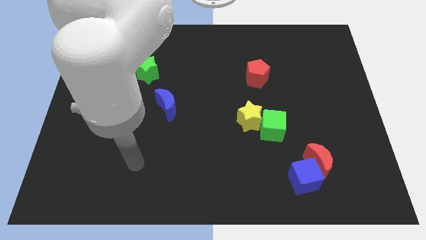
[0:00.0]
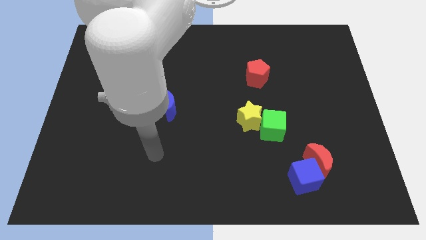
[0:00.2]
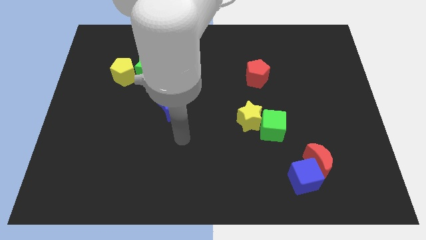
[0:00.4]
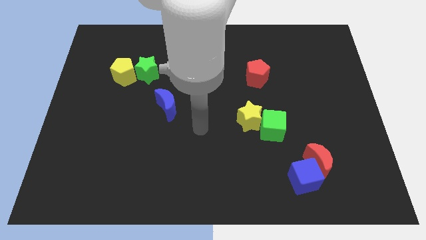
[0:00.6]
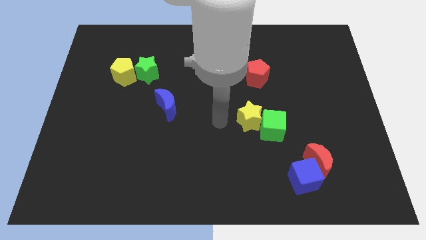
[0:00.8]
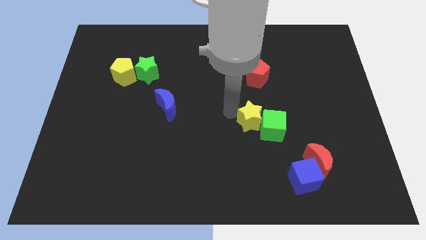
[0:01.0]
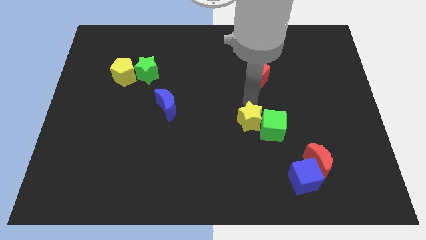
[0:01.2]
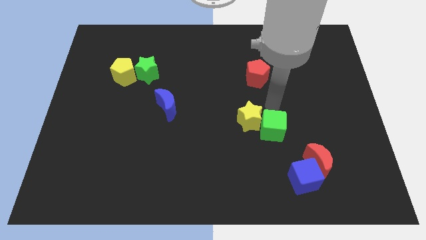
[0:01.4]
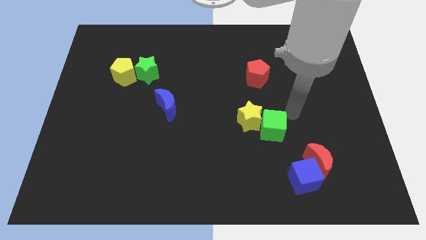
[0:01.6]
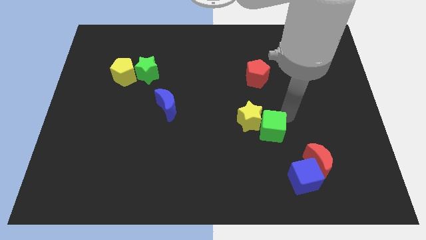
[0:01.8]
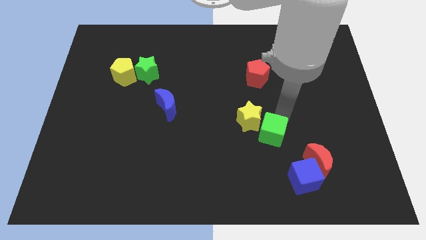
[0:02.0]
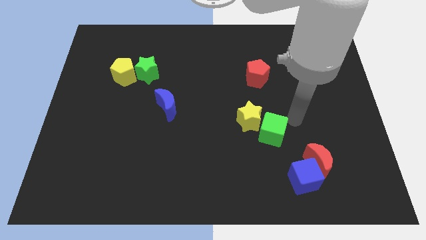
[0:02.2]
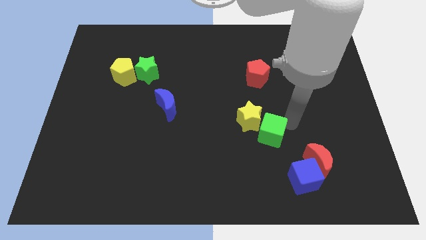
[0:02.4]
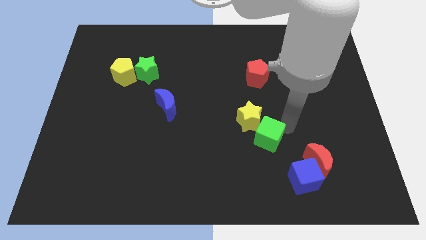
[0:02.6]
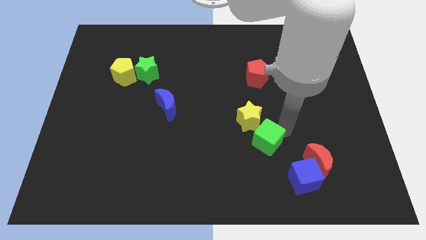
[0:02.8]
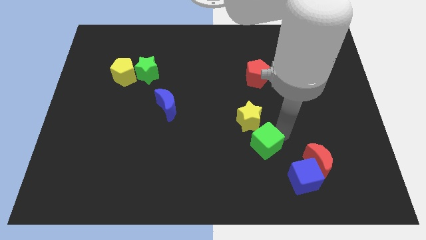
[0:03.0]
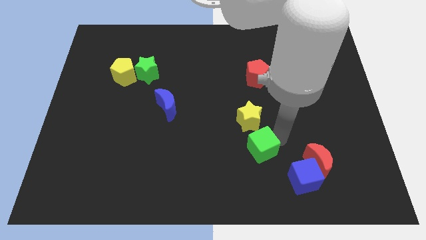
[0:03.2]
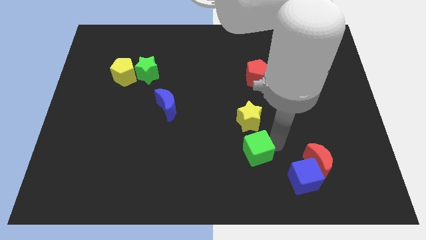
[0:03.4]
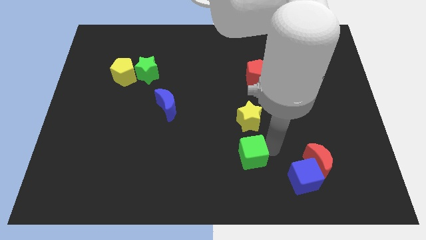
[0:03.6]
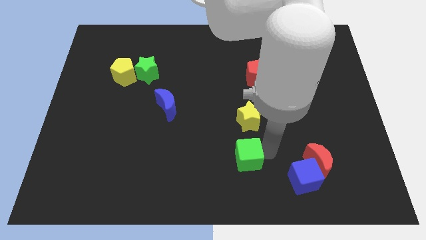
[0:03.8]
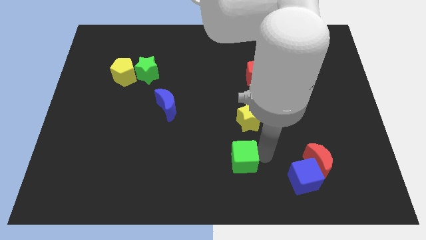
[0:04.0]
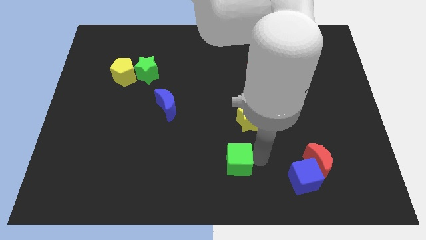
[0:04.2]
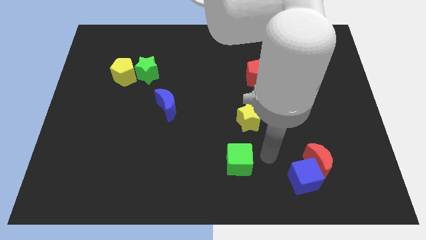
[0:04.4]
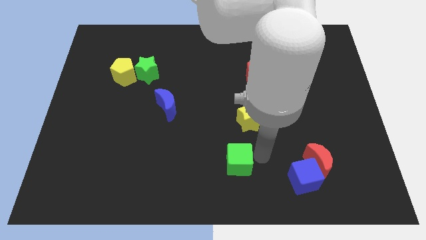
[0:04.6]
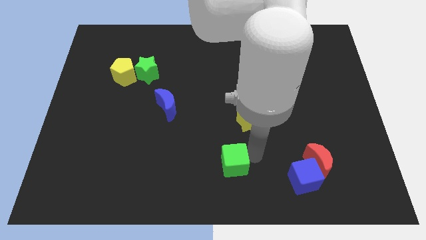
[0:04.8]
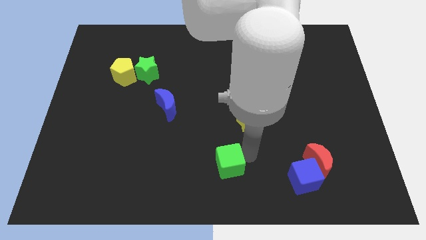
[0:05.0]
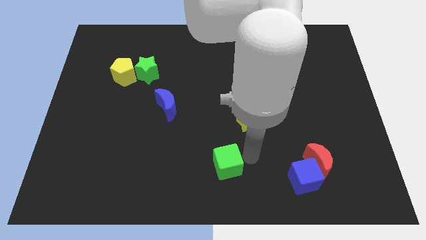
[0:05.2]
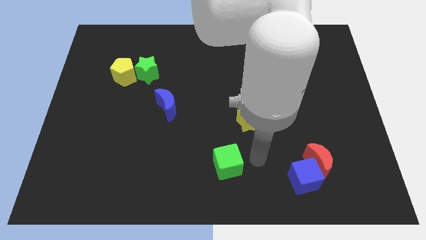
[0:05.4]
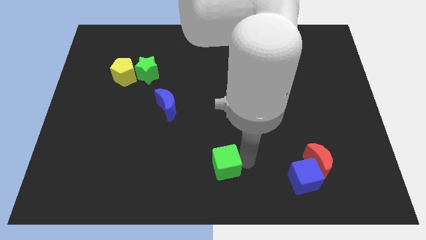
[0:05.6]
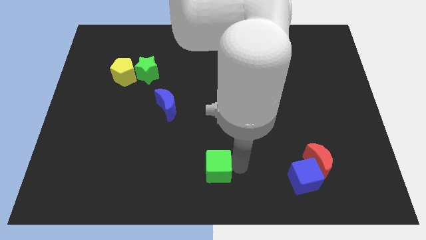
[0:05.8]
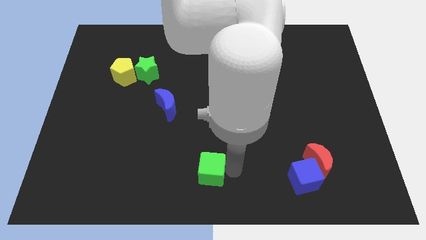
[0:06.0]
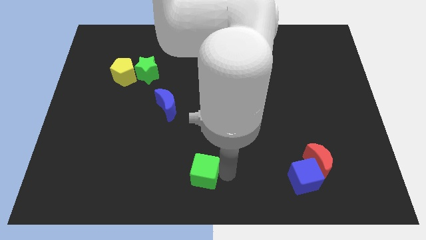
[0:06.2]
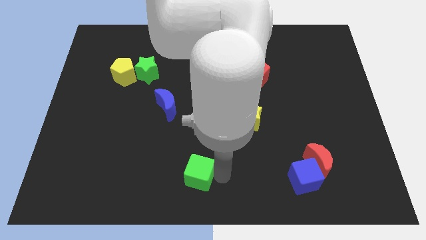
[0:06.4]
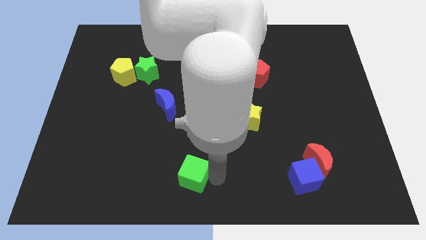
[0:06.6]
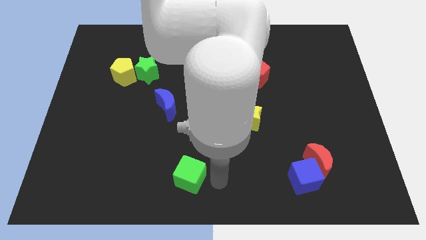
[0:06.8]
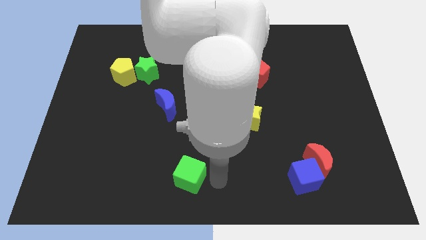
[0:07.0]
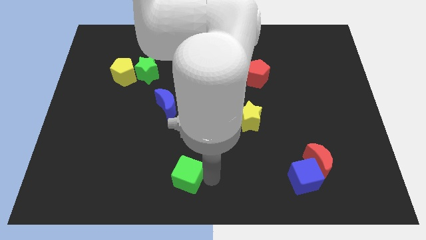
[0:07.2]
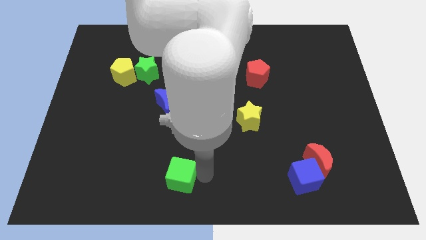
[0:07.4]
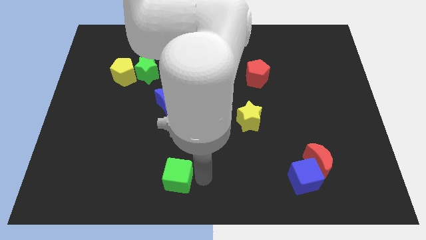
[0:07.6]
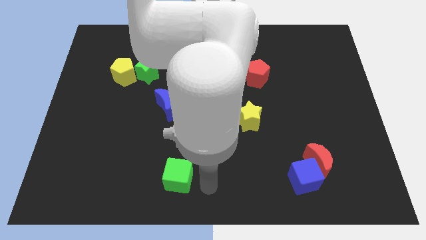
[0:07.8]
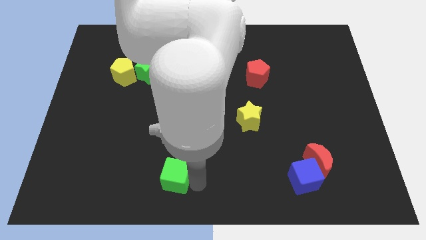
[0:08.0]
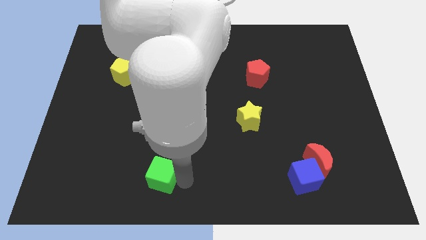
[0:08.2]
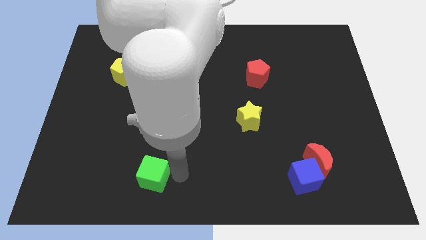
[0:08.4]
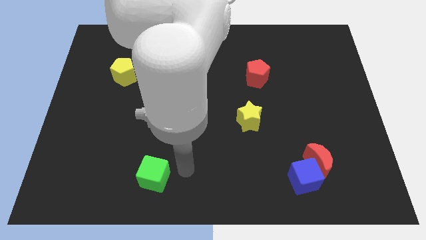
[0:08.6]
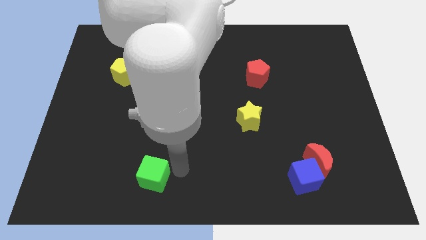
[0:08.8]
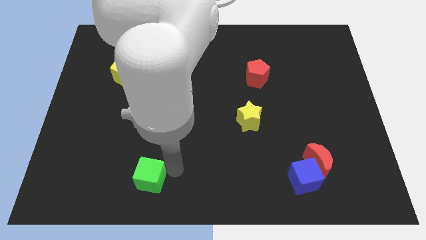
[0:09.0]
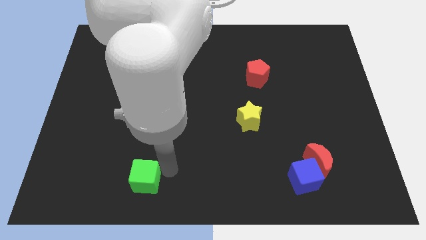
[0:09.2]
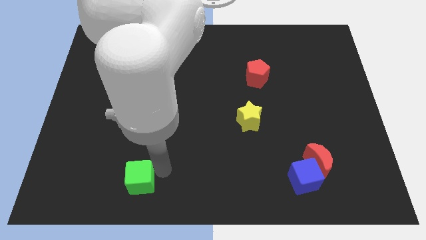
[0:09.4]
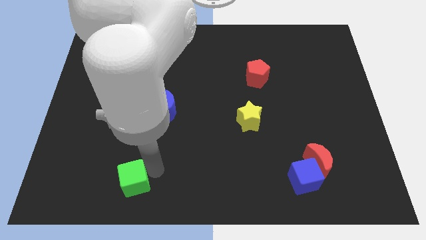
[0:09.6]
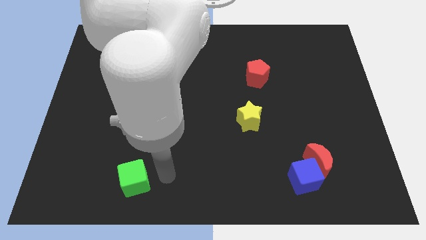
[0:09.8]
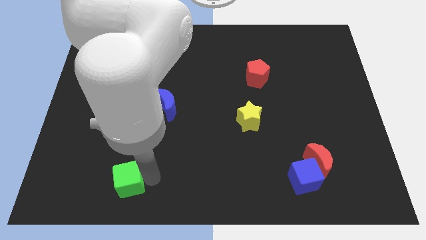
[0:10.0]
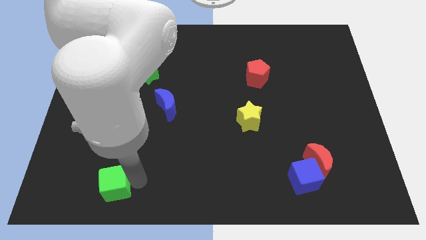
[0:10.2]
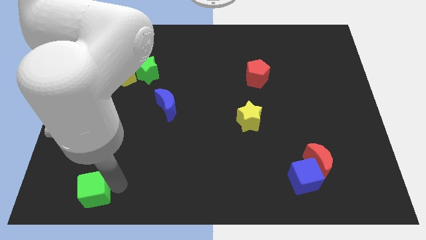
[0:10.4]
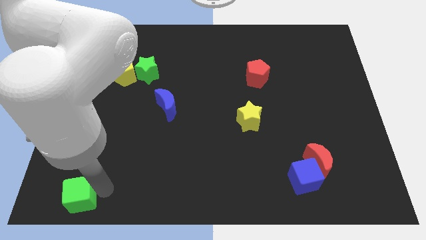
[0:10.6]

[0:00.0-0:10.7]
move the green cube to the bottom left

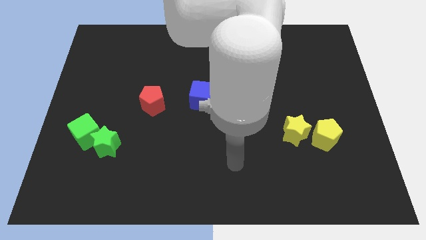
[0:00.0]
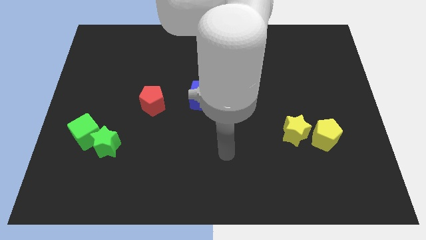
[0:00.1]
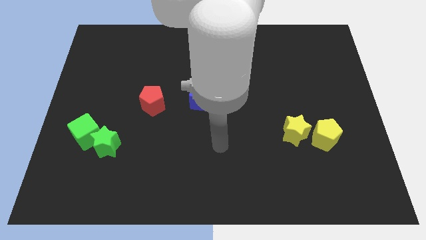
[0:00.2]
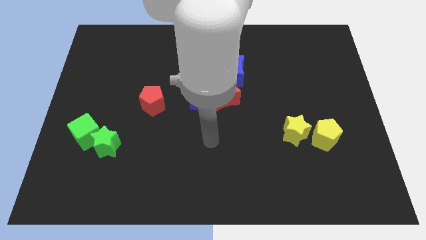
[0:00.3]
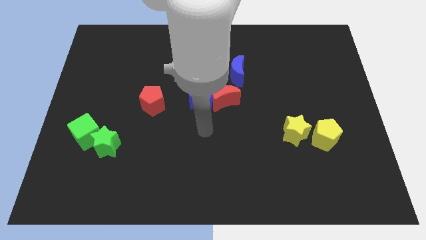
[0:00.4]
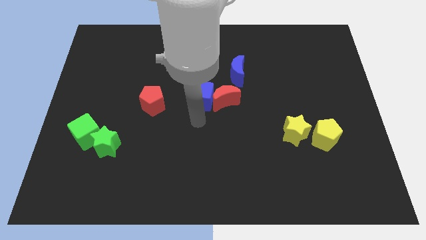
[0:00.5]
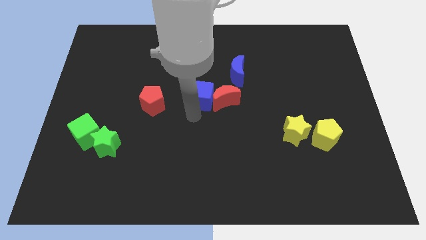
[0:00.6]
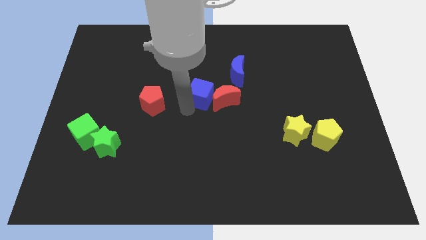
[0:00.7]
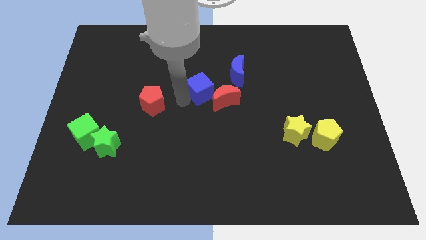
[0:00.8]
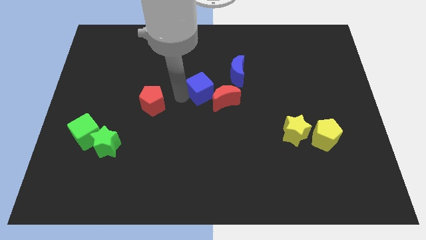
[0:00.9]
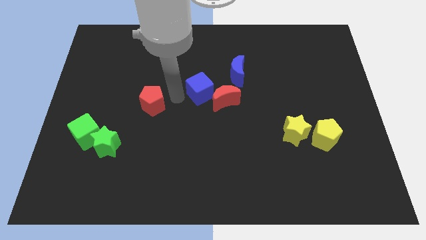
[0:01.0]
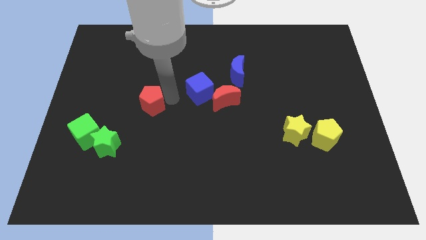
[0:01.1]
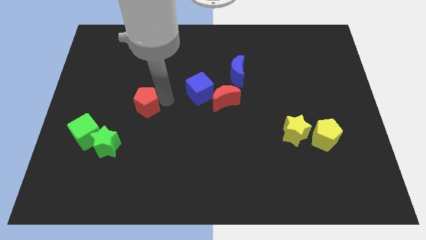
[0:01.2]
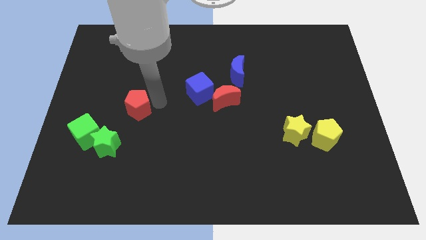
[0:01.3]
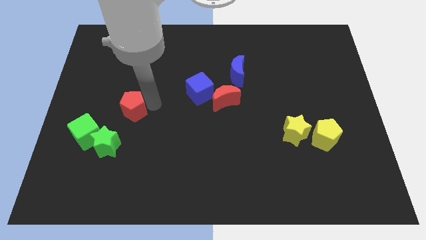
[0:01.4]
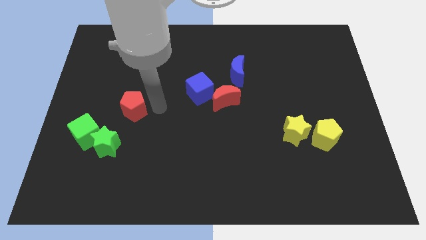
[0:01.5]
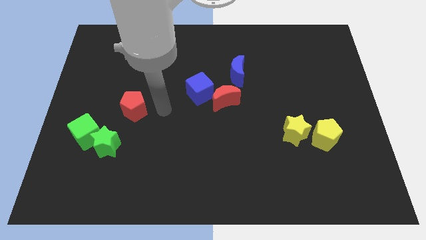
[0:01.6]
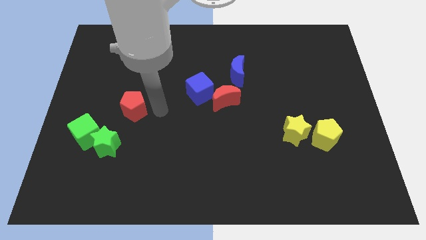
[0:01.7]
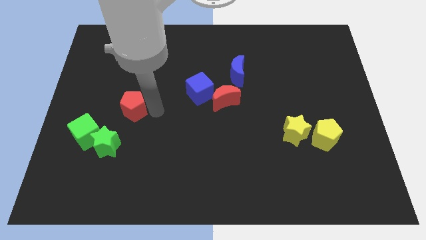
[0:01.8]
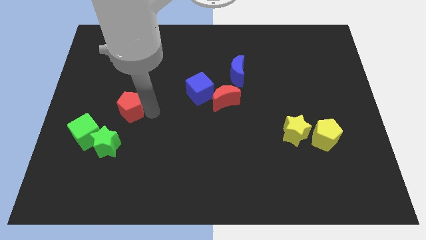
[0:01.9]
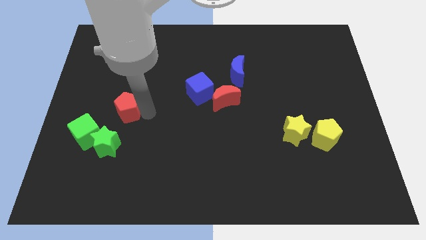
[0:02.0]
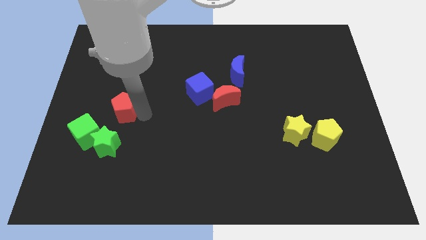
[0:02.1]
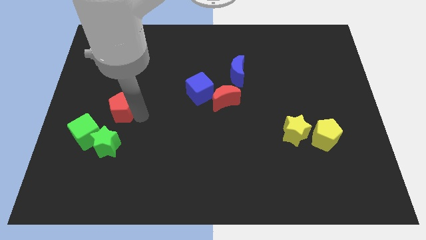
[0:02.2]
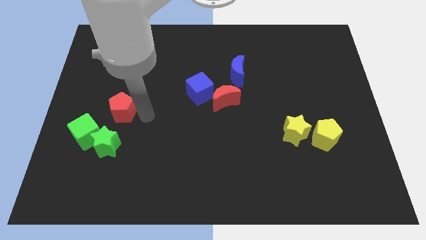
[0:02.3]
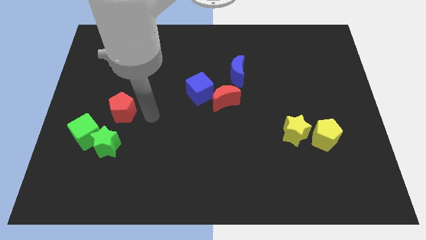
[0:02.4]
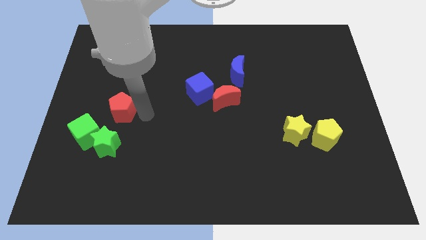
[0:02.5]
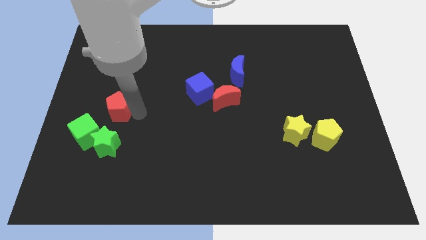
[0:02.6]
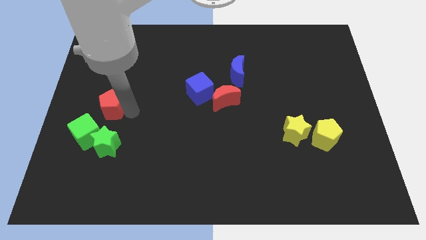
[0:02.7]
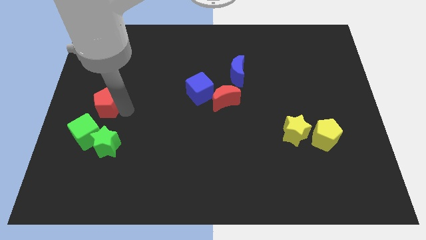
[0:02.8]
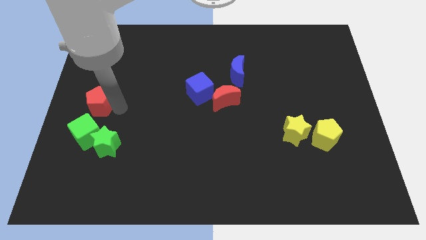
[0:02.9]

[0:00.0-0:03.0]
slide the red pentagon to the center left

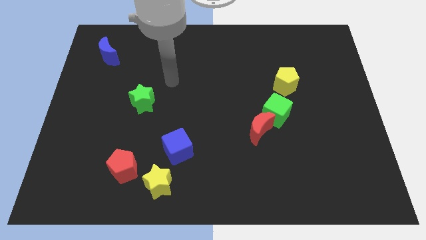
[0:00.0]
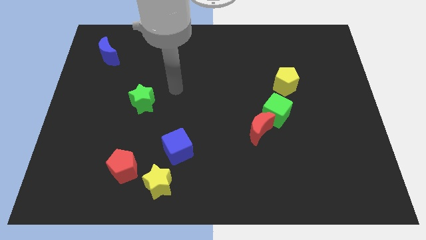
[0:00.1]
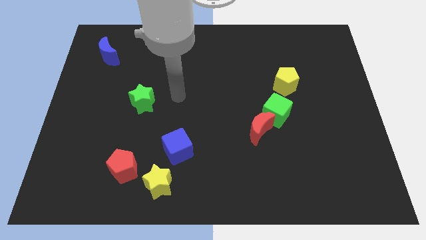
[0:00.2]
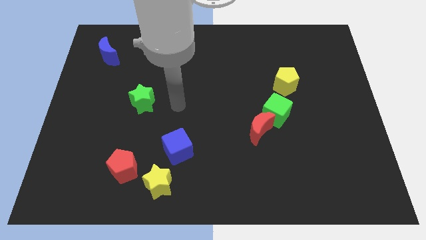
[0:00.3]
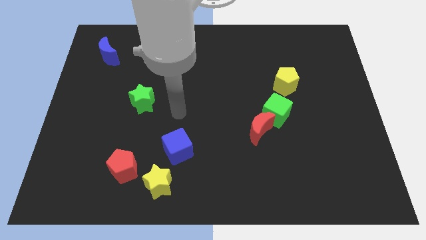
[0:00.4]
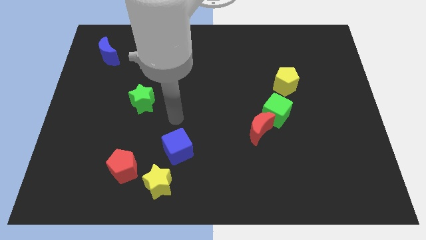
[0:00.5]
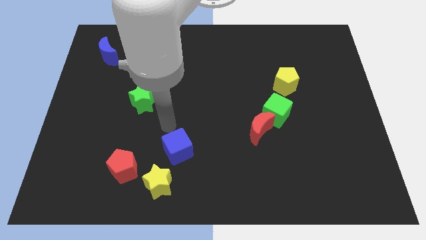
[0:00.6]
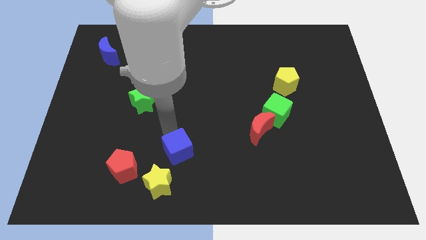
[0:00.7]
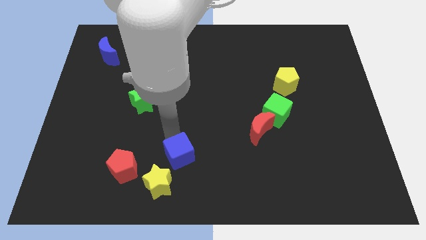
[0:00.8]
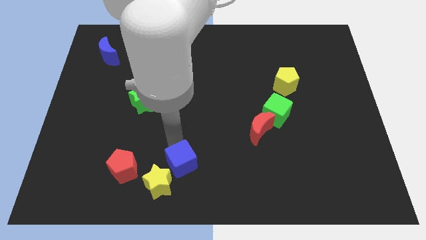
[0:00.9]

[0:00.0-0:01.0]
put the blue cube to the bottom side
